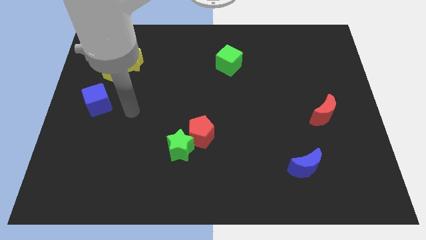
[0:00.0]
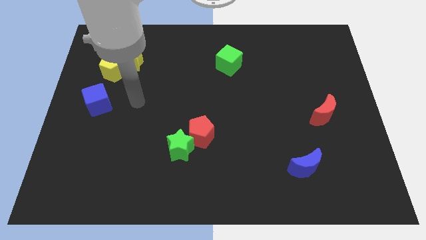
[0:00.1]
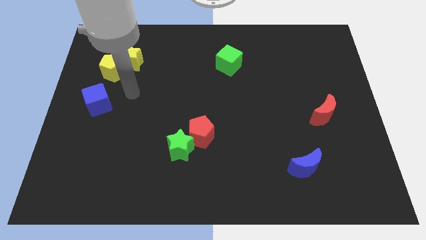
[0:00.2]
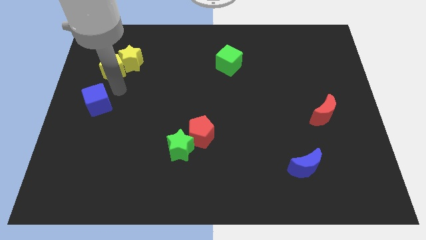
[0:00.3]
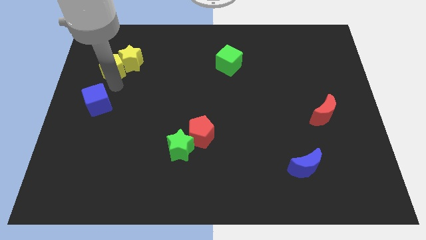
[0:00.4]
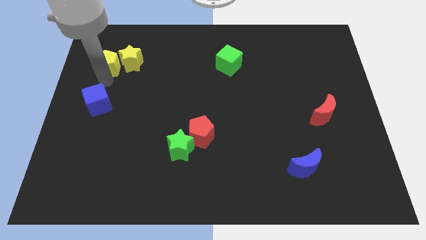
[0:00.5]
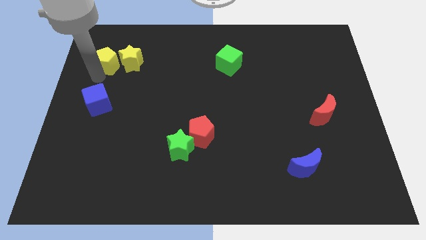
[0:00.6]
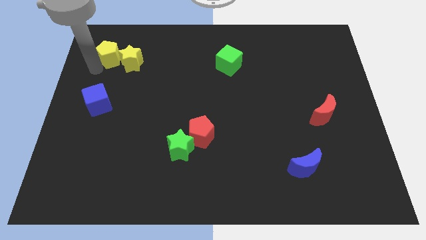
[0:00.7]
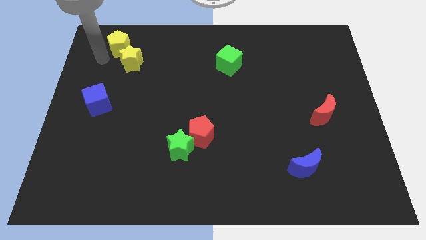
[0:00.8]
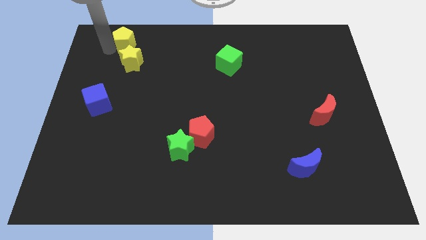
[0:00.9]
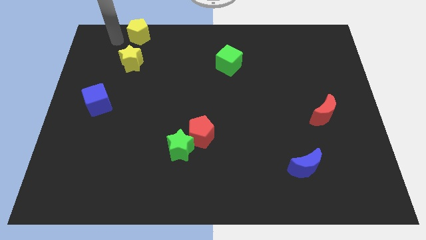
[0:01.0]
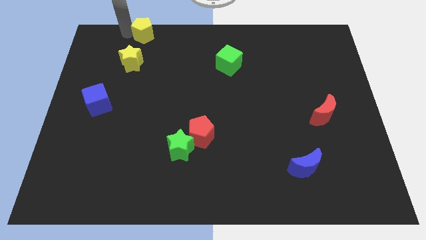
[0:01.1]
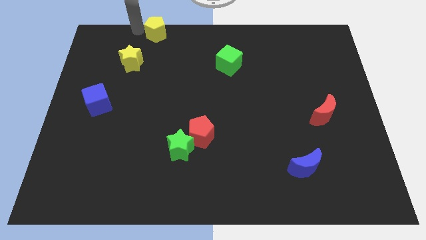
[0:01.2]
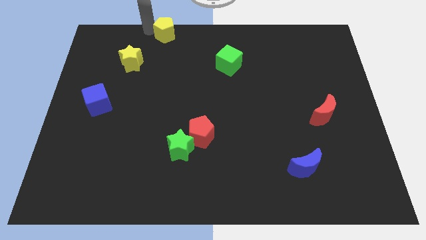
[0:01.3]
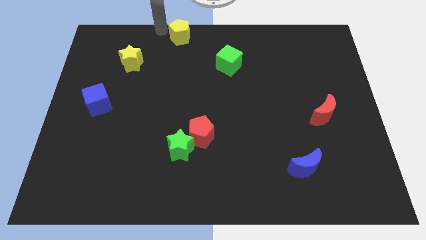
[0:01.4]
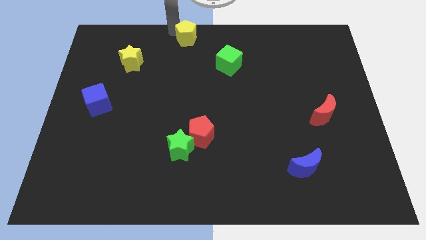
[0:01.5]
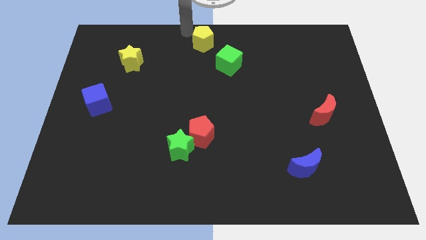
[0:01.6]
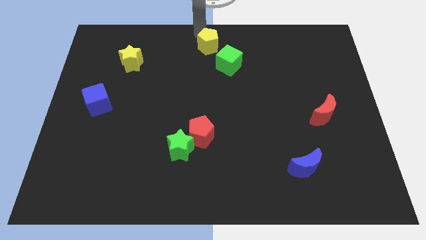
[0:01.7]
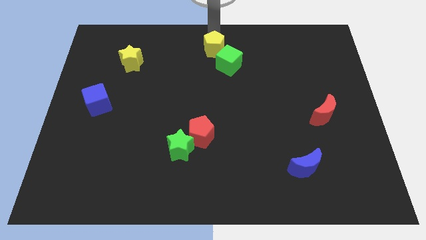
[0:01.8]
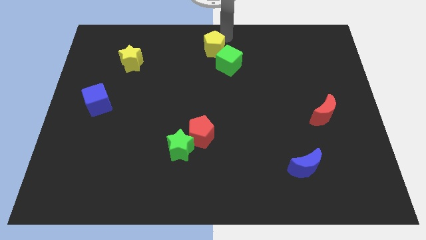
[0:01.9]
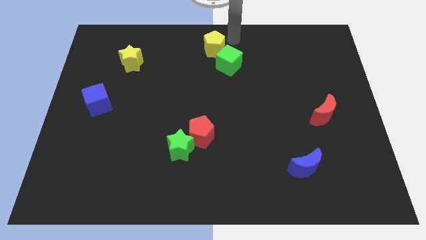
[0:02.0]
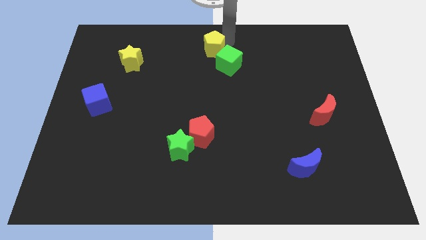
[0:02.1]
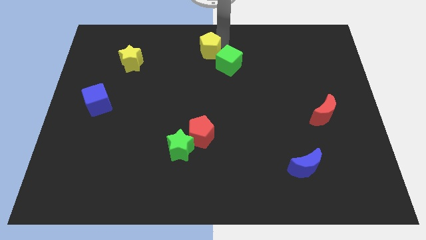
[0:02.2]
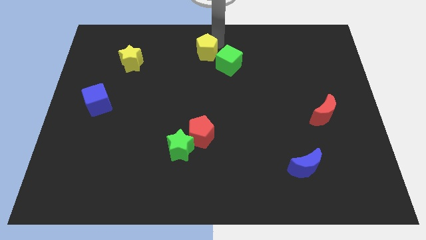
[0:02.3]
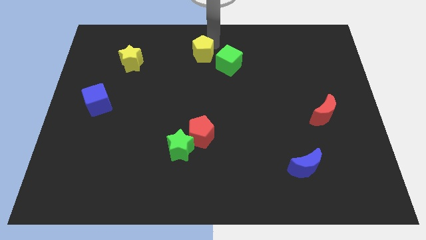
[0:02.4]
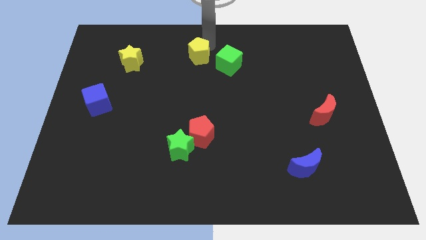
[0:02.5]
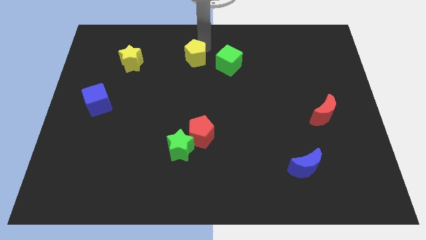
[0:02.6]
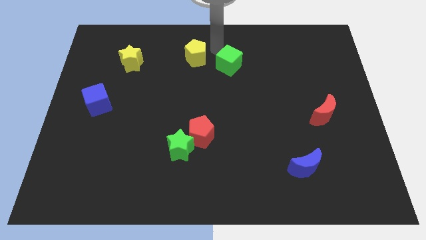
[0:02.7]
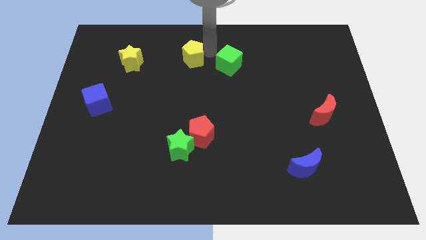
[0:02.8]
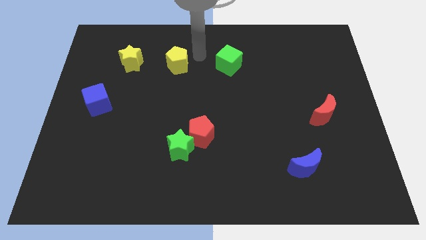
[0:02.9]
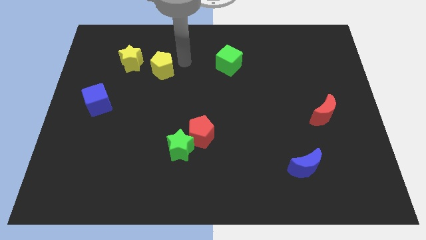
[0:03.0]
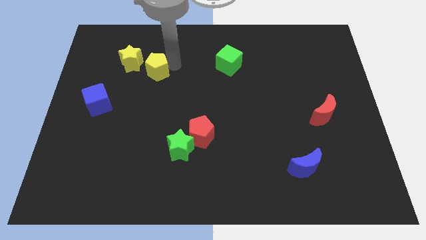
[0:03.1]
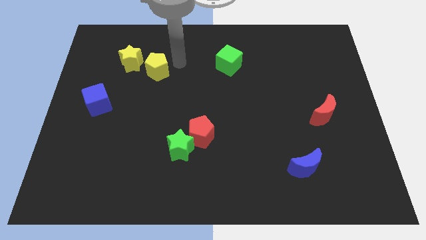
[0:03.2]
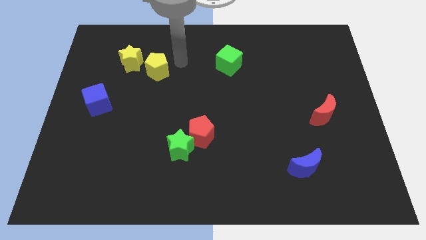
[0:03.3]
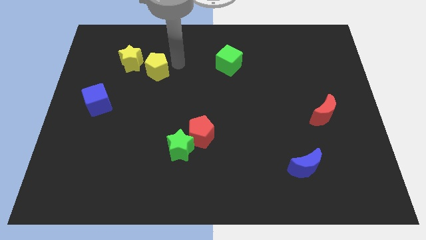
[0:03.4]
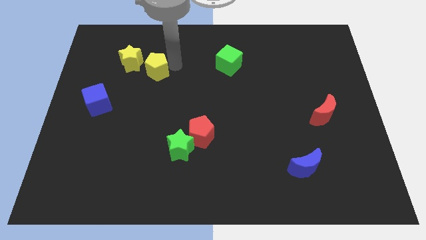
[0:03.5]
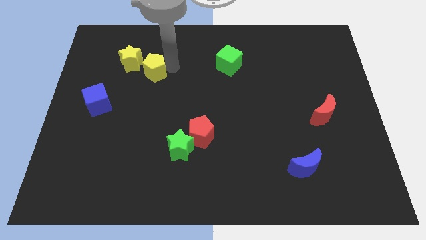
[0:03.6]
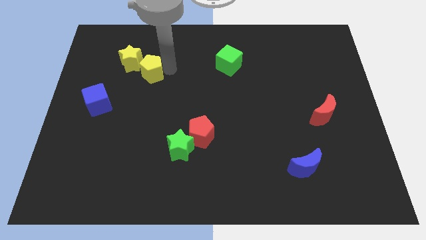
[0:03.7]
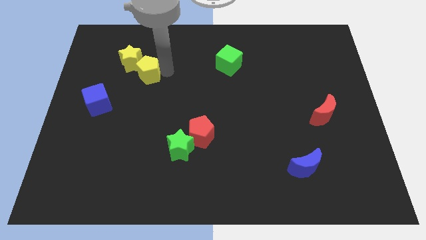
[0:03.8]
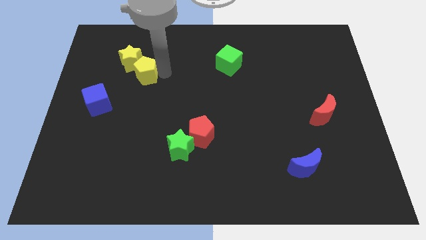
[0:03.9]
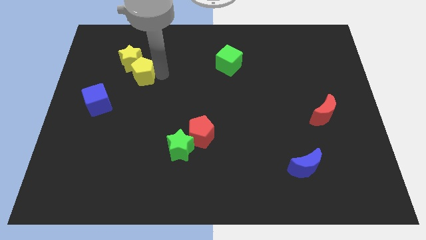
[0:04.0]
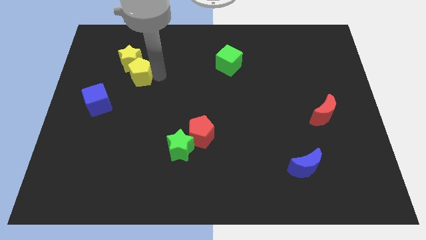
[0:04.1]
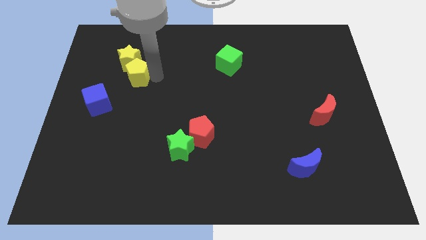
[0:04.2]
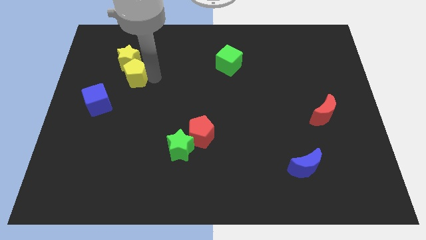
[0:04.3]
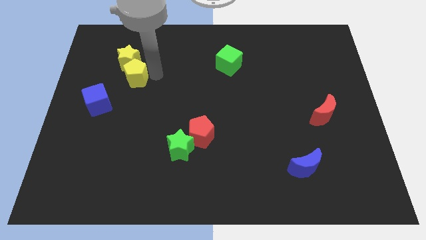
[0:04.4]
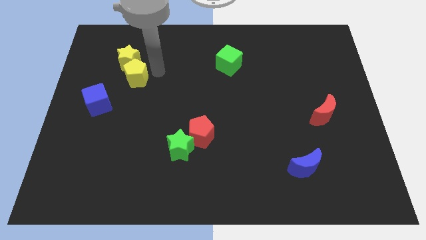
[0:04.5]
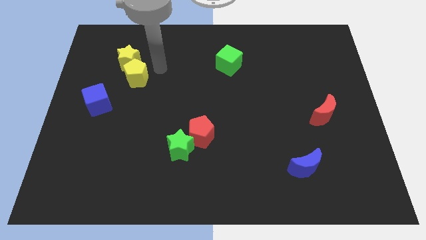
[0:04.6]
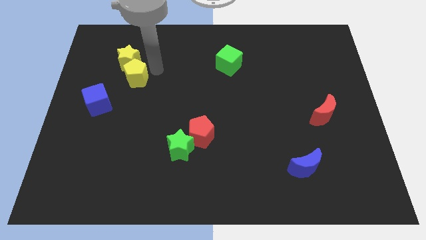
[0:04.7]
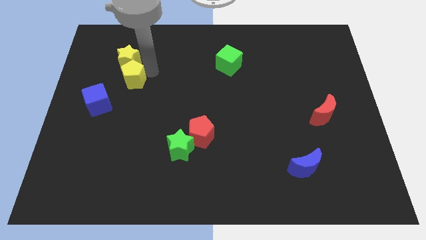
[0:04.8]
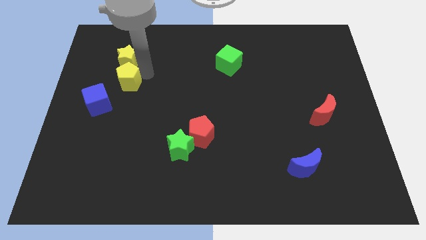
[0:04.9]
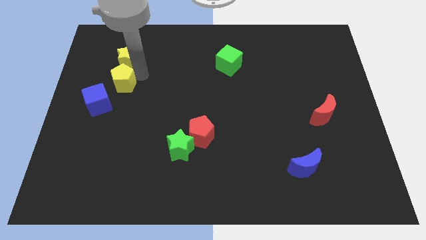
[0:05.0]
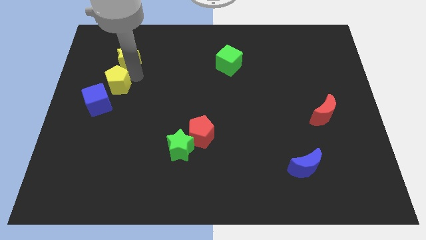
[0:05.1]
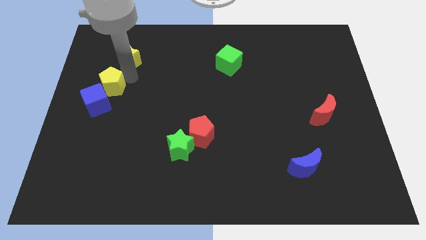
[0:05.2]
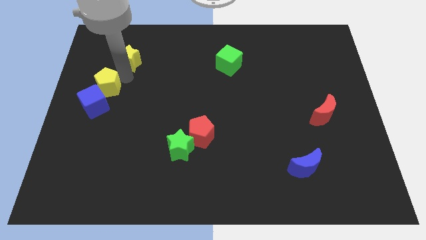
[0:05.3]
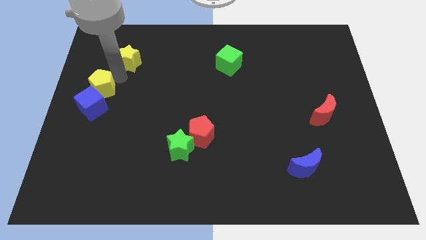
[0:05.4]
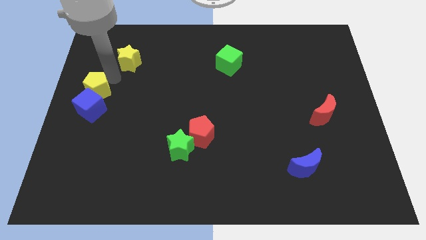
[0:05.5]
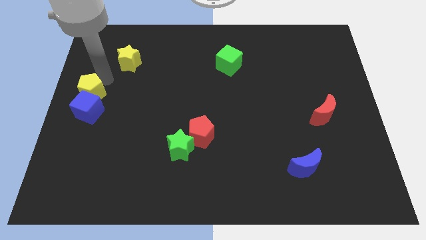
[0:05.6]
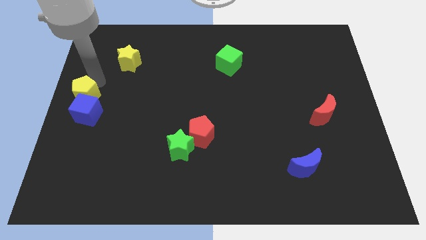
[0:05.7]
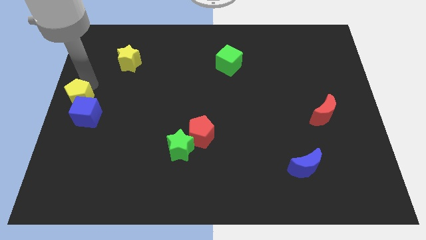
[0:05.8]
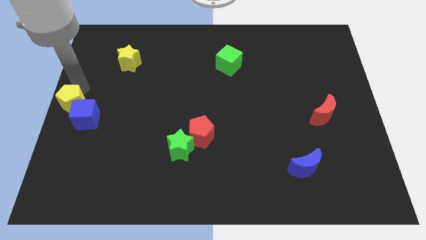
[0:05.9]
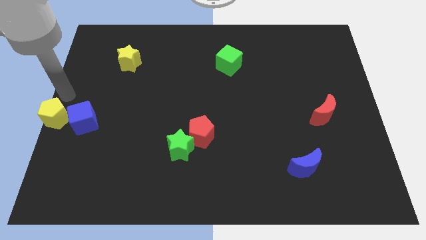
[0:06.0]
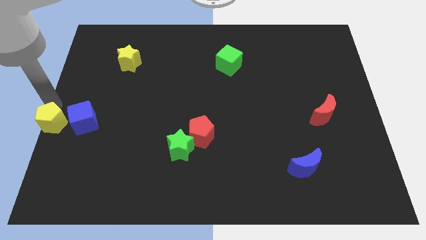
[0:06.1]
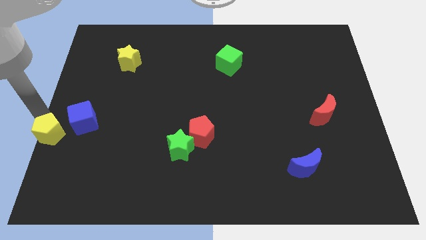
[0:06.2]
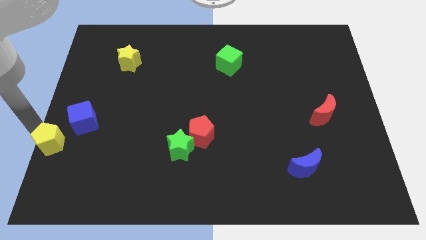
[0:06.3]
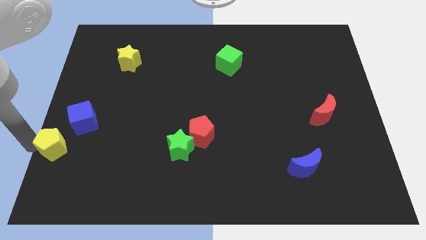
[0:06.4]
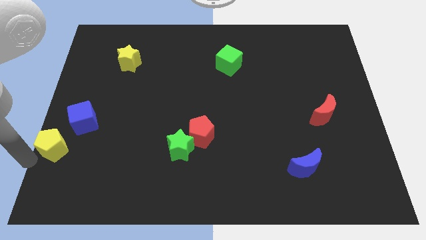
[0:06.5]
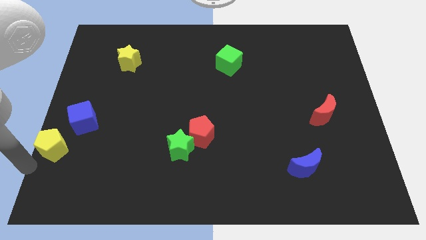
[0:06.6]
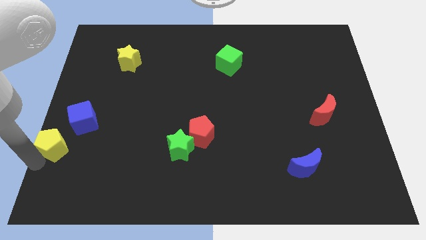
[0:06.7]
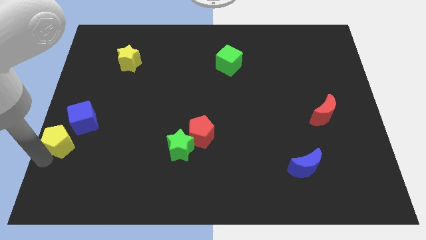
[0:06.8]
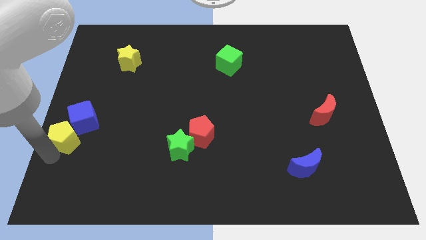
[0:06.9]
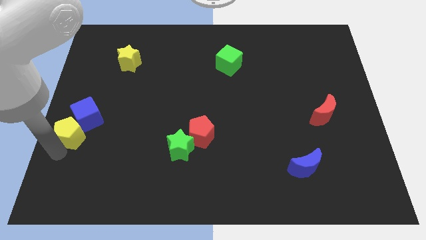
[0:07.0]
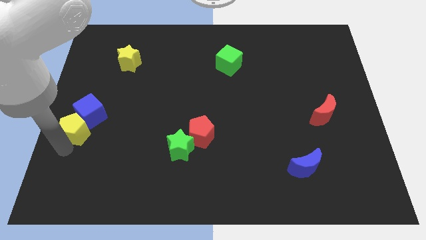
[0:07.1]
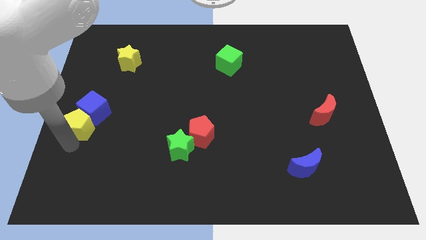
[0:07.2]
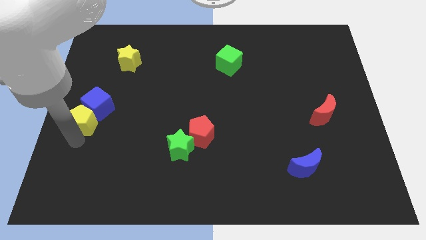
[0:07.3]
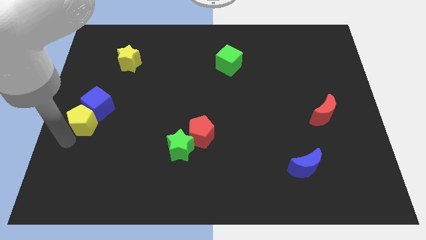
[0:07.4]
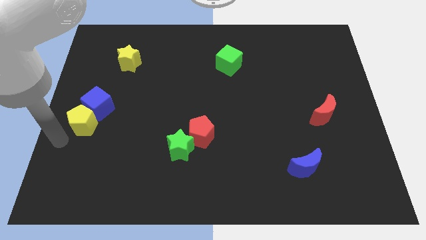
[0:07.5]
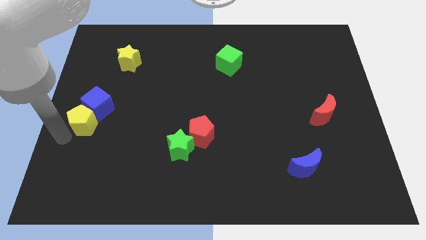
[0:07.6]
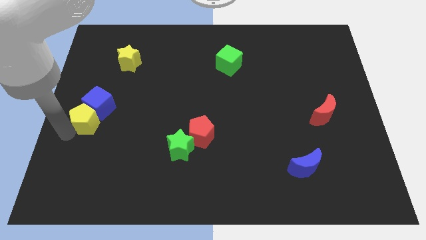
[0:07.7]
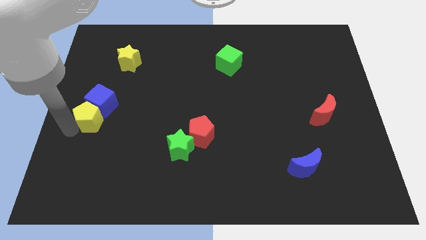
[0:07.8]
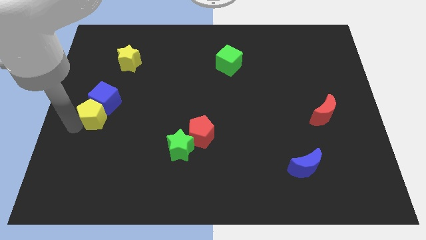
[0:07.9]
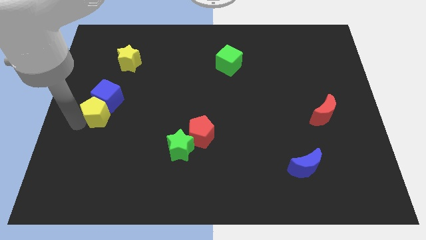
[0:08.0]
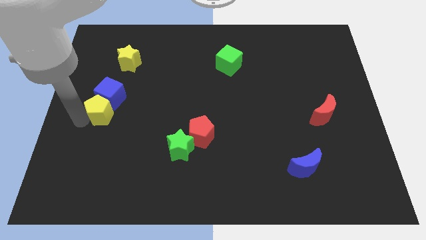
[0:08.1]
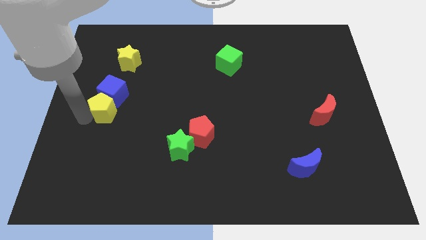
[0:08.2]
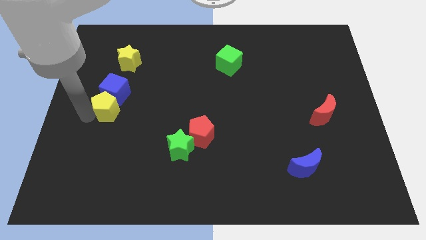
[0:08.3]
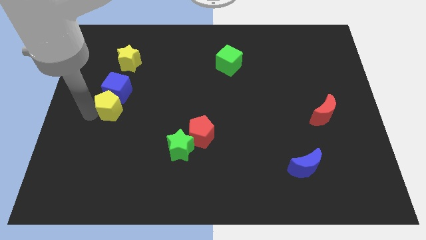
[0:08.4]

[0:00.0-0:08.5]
push the yellow pentagon down and to the right a little
